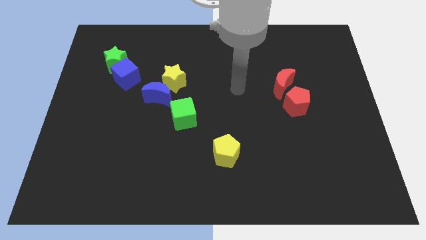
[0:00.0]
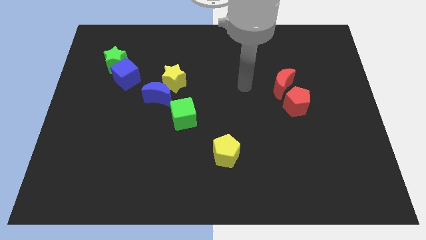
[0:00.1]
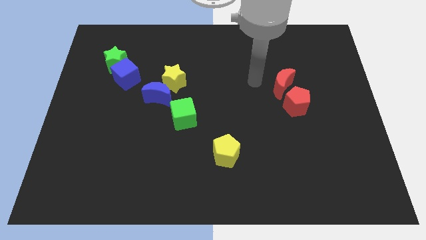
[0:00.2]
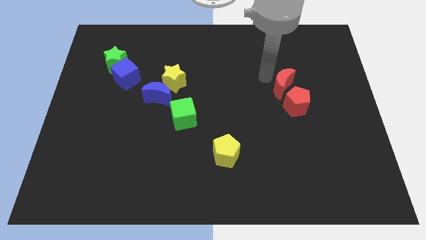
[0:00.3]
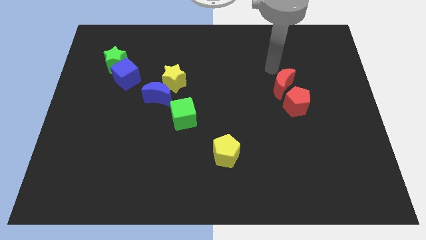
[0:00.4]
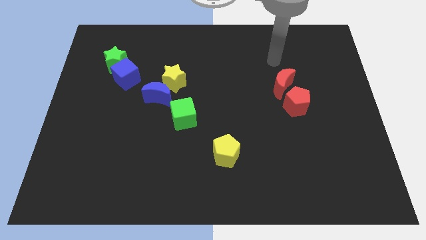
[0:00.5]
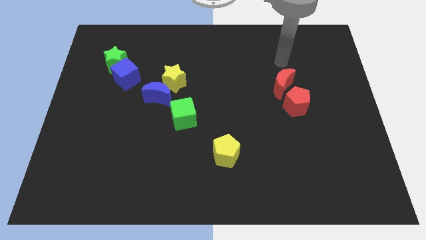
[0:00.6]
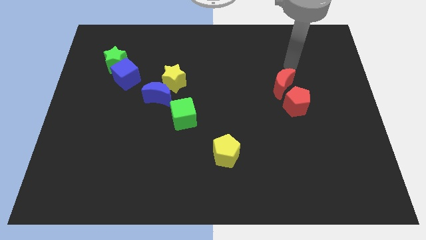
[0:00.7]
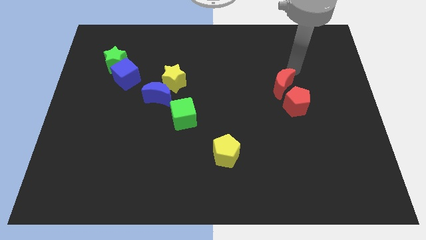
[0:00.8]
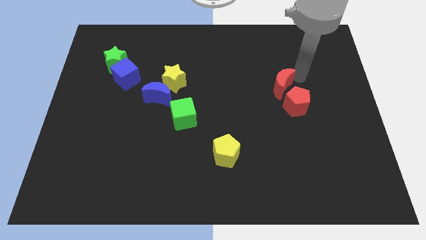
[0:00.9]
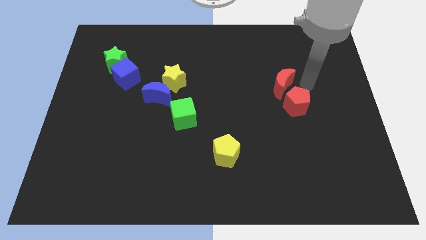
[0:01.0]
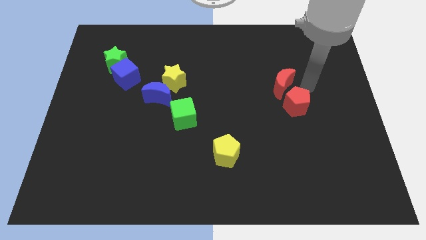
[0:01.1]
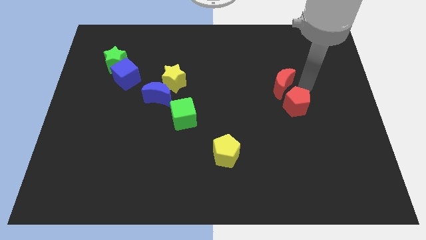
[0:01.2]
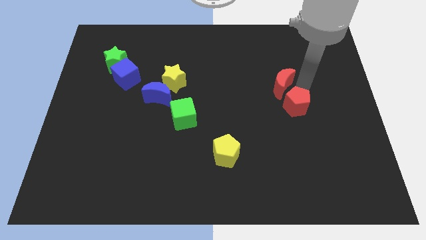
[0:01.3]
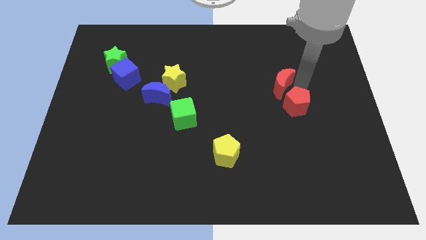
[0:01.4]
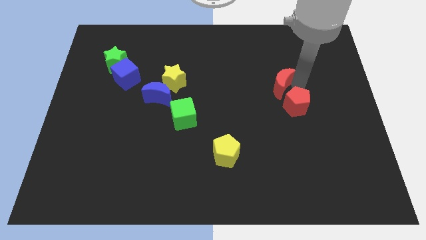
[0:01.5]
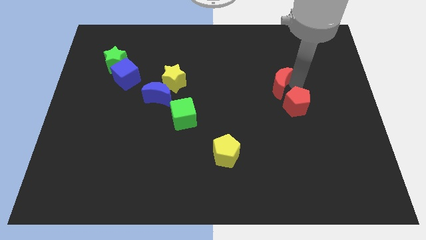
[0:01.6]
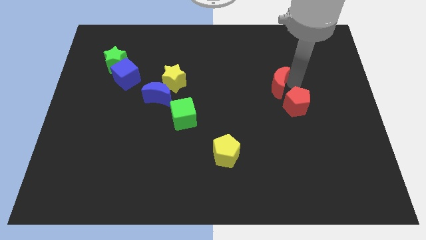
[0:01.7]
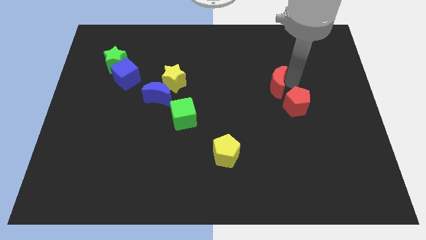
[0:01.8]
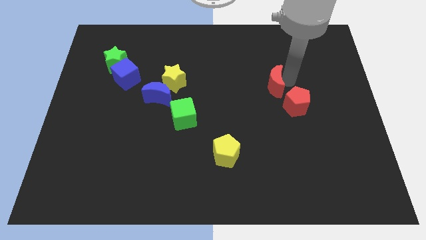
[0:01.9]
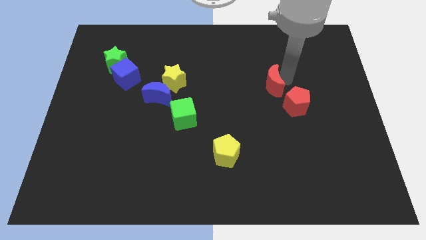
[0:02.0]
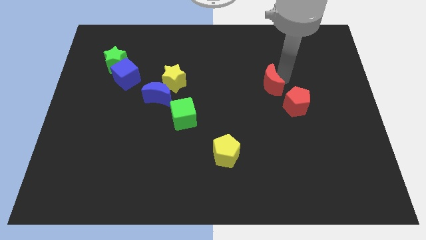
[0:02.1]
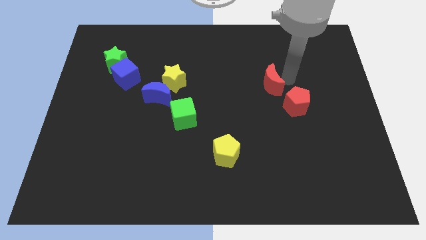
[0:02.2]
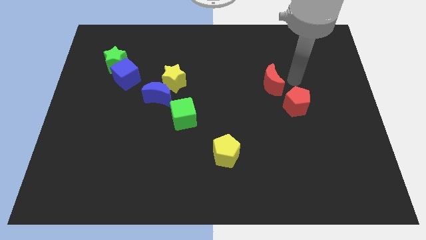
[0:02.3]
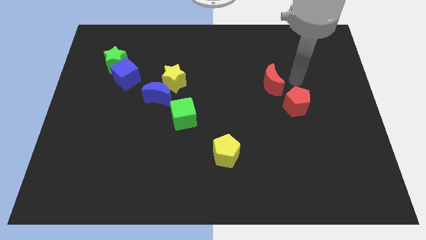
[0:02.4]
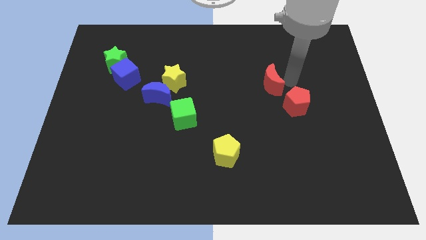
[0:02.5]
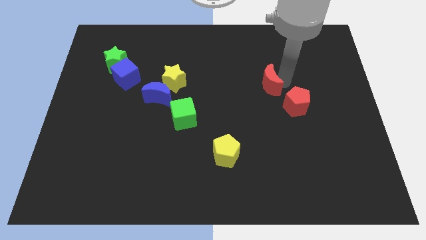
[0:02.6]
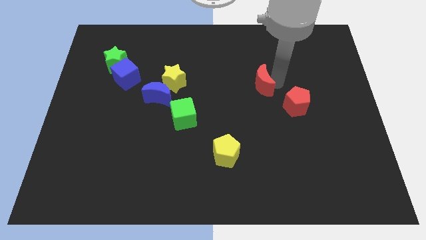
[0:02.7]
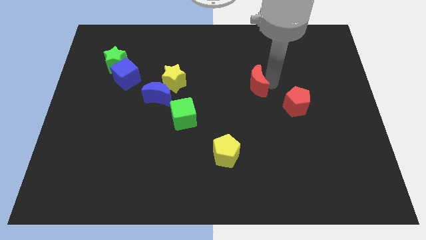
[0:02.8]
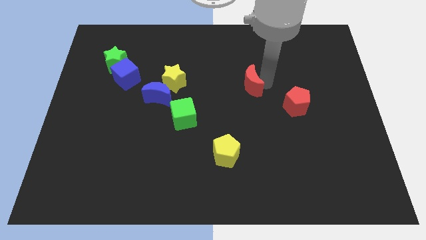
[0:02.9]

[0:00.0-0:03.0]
slide the red moon a little left

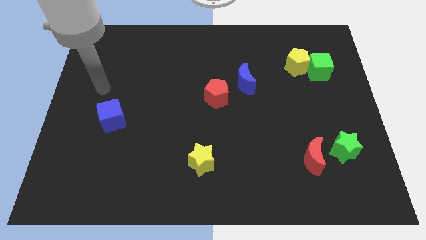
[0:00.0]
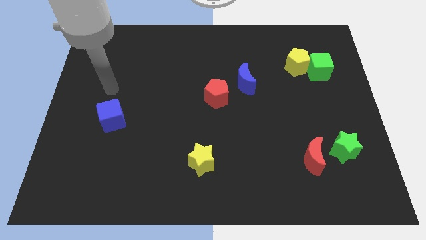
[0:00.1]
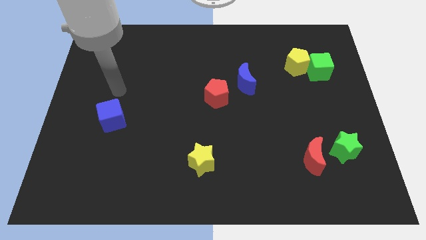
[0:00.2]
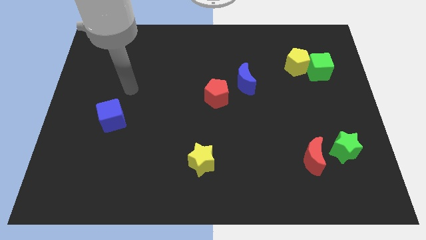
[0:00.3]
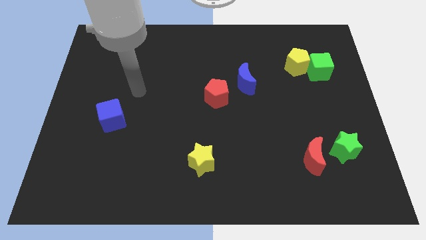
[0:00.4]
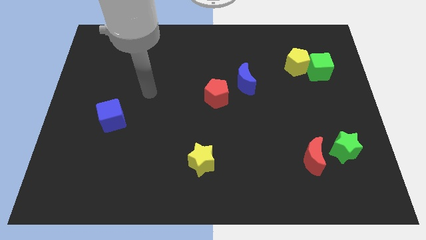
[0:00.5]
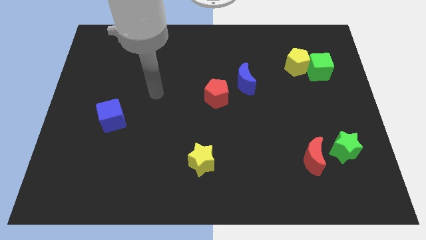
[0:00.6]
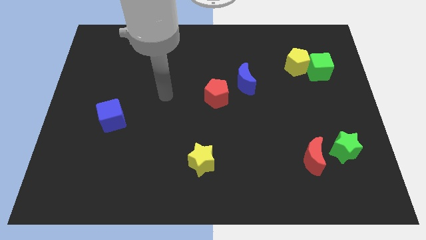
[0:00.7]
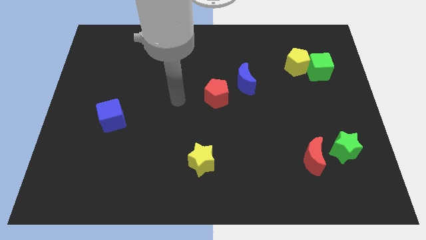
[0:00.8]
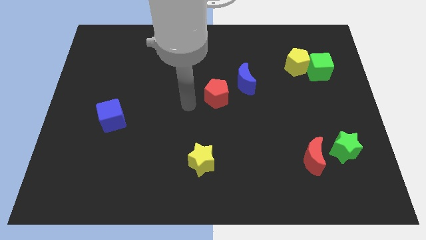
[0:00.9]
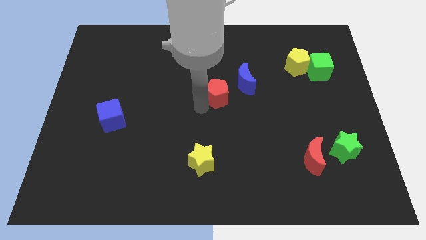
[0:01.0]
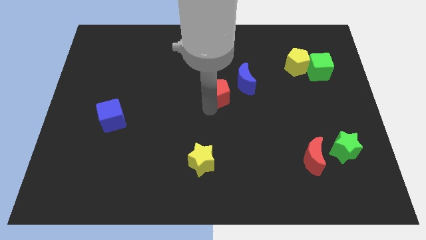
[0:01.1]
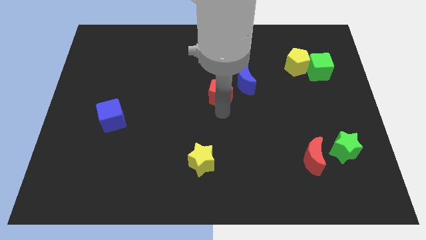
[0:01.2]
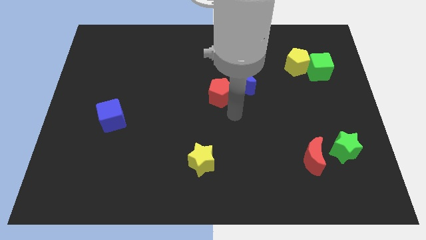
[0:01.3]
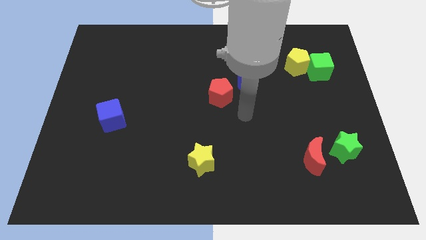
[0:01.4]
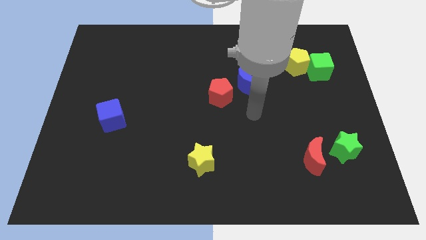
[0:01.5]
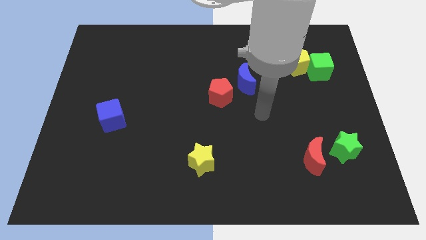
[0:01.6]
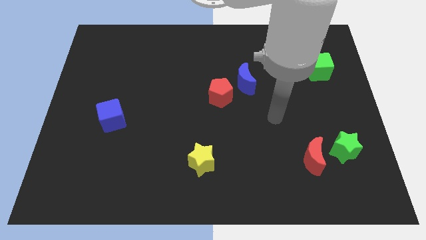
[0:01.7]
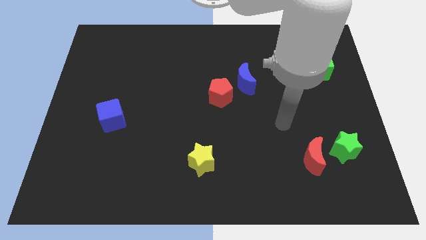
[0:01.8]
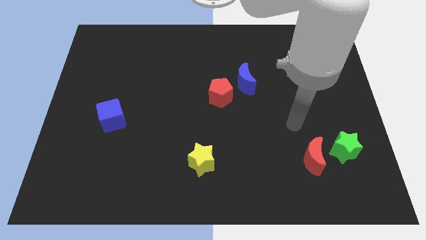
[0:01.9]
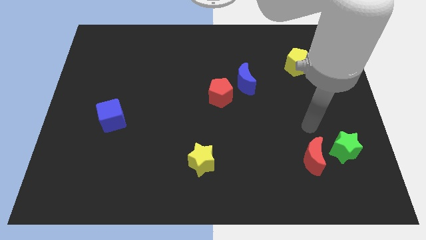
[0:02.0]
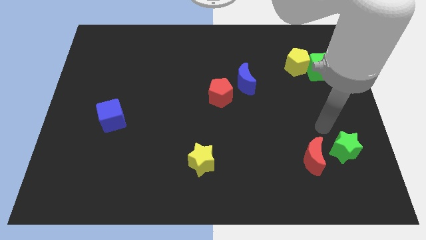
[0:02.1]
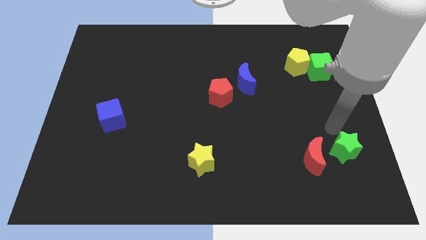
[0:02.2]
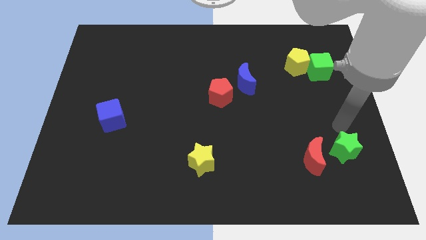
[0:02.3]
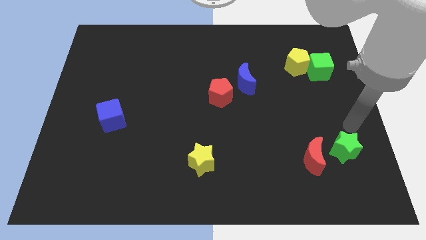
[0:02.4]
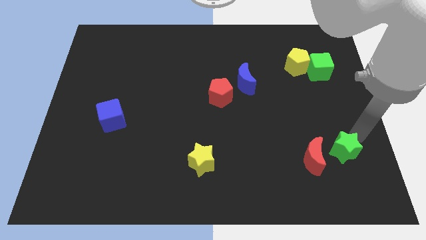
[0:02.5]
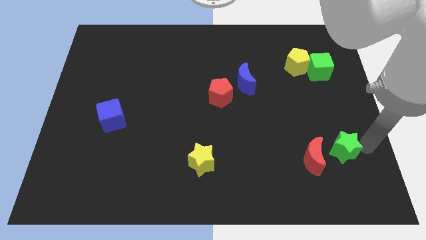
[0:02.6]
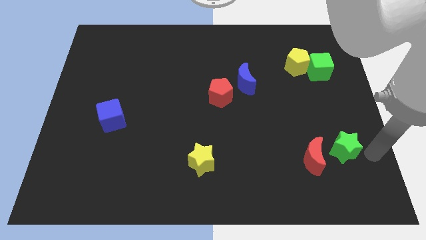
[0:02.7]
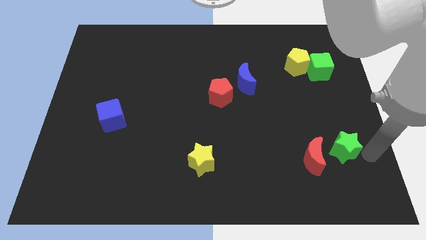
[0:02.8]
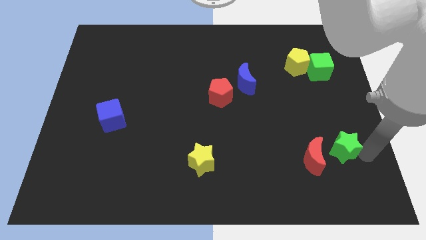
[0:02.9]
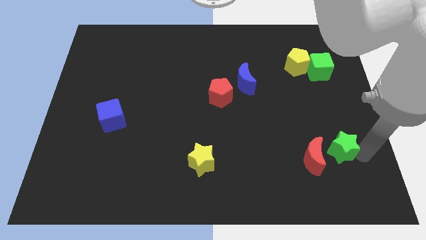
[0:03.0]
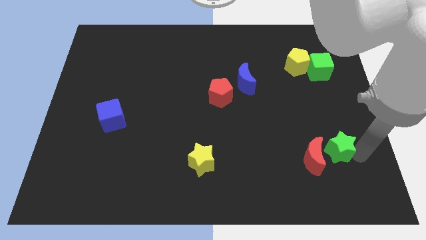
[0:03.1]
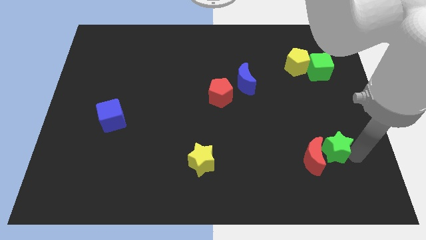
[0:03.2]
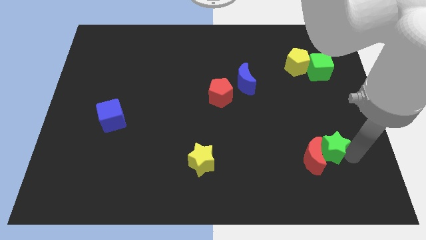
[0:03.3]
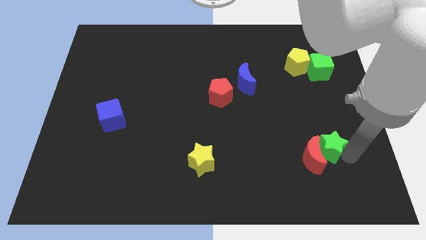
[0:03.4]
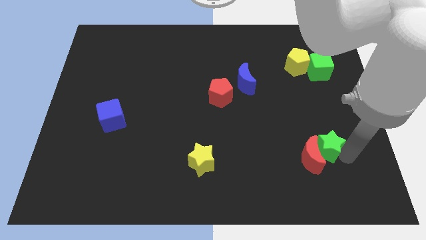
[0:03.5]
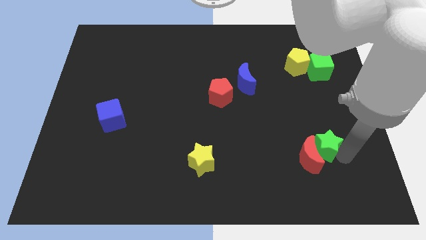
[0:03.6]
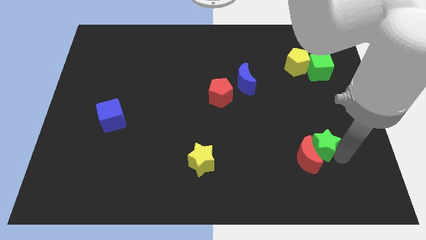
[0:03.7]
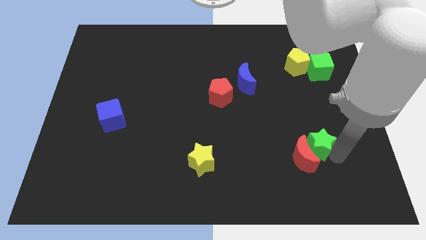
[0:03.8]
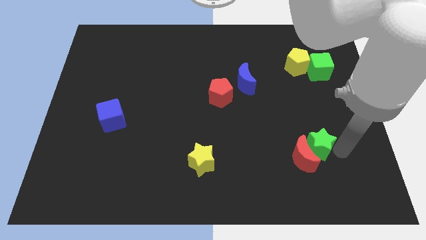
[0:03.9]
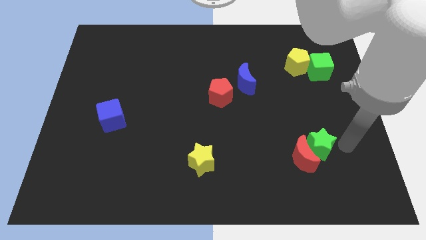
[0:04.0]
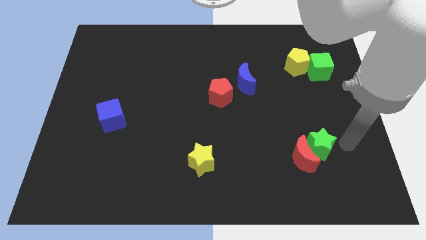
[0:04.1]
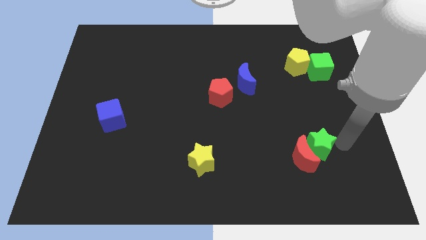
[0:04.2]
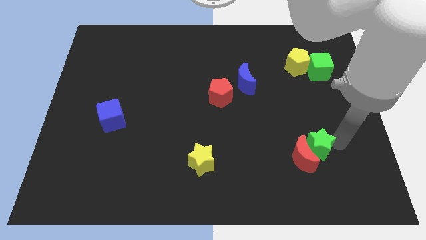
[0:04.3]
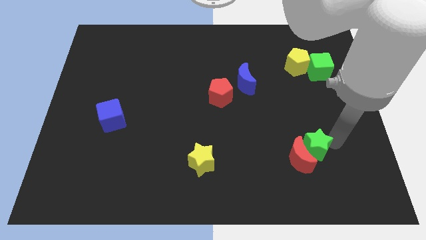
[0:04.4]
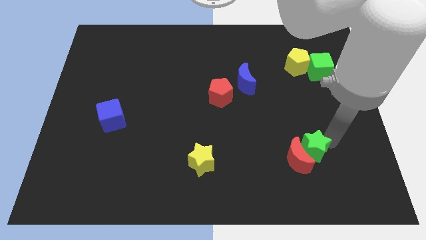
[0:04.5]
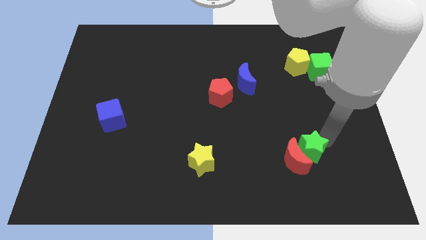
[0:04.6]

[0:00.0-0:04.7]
move the green star to the left a little bit
